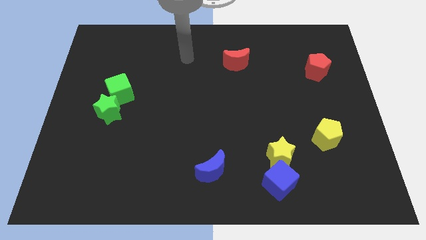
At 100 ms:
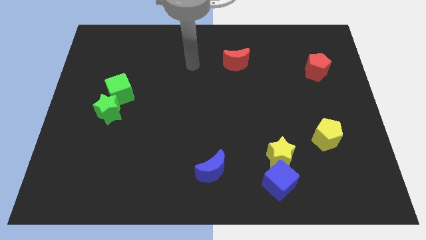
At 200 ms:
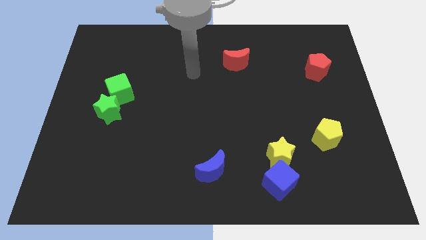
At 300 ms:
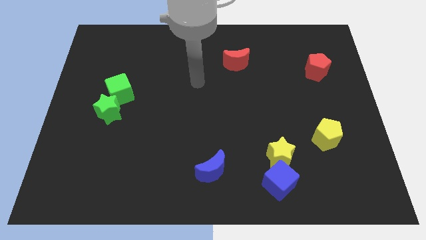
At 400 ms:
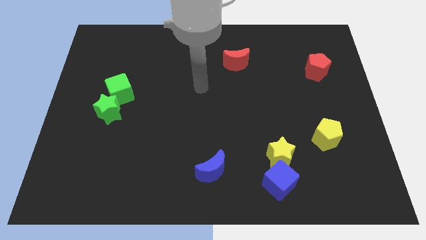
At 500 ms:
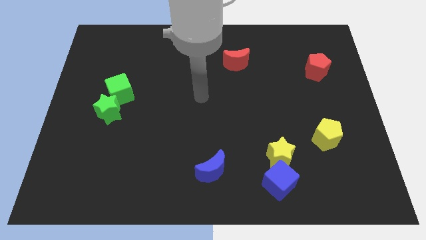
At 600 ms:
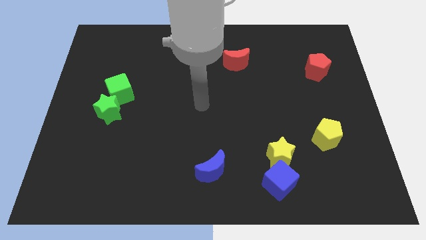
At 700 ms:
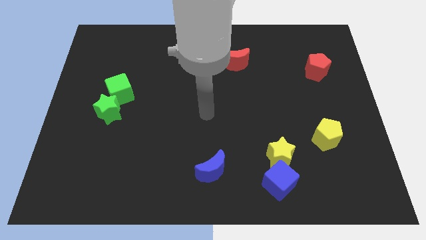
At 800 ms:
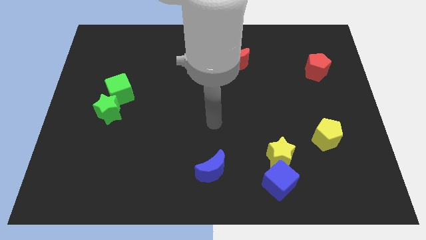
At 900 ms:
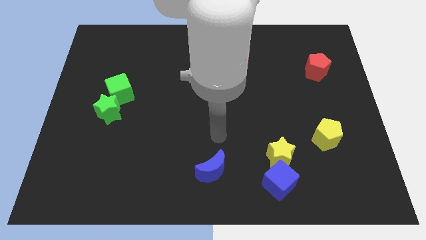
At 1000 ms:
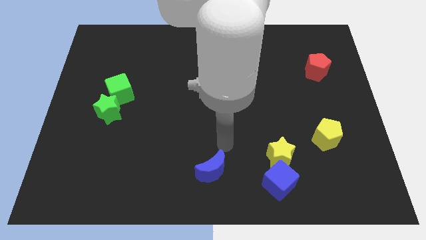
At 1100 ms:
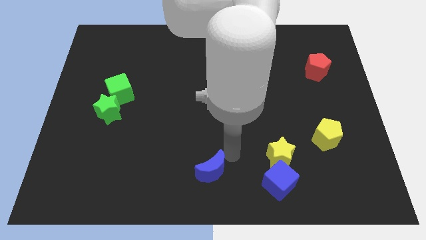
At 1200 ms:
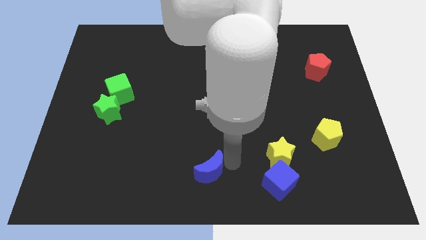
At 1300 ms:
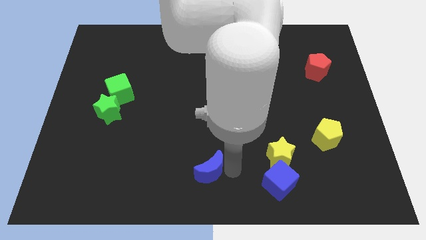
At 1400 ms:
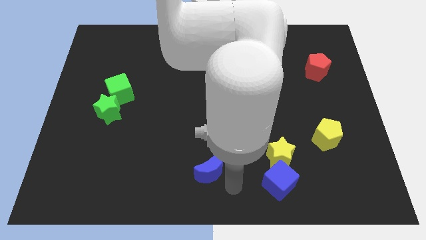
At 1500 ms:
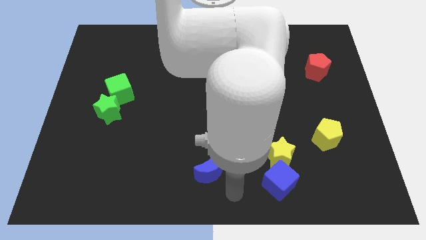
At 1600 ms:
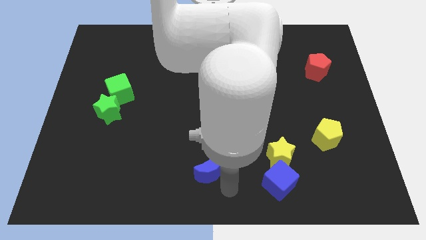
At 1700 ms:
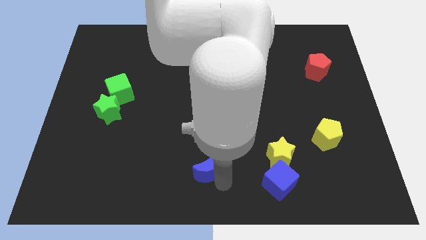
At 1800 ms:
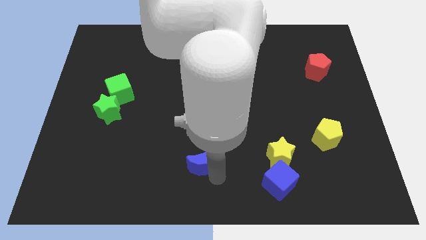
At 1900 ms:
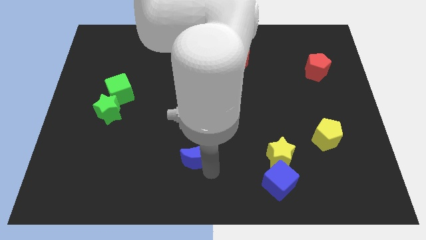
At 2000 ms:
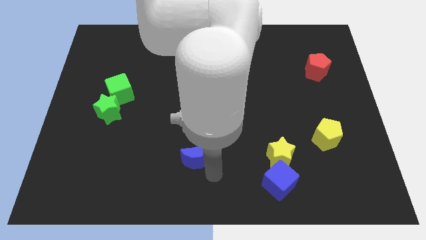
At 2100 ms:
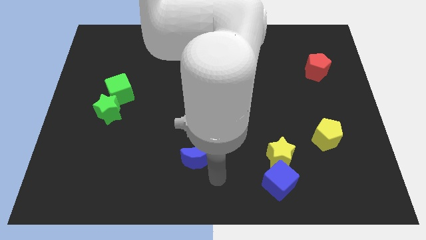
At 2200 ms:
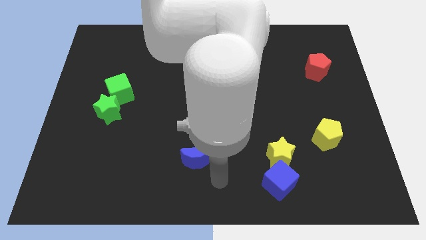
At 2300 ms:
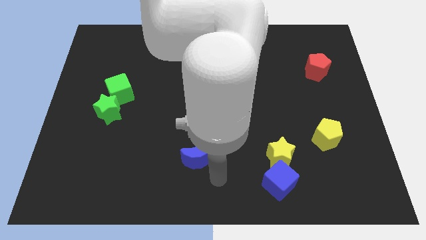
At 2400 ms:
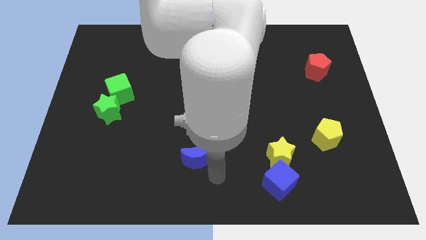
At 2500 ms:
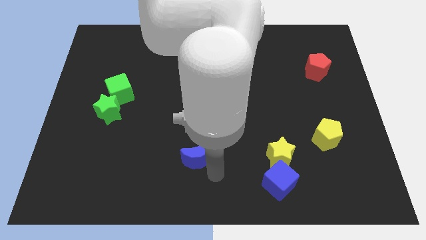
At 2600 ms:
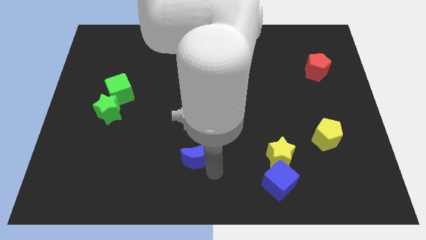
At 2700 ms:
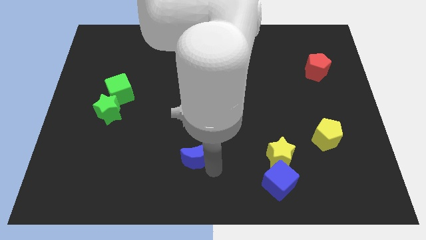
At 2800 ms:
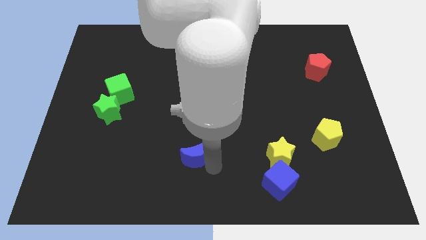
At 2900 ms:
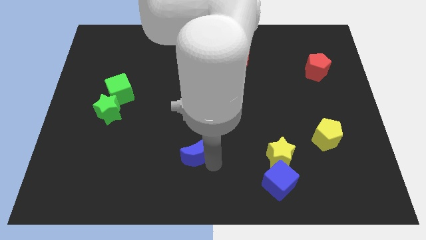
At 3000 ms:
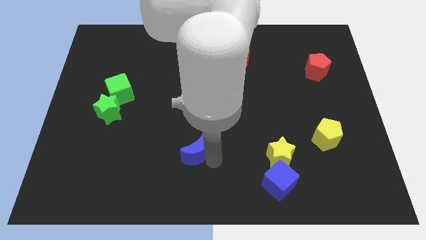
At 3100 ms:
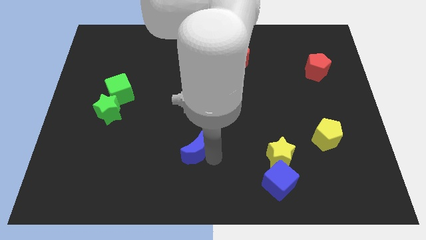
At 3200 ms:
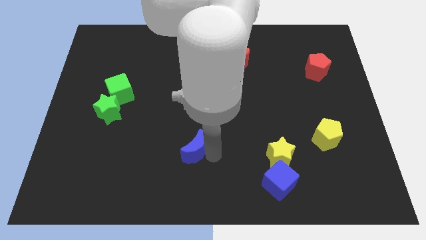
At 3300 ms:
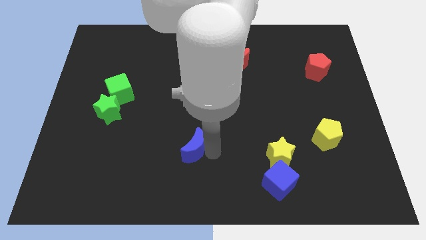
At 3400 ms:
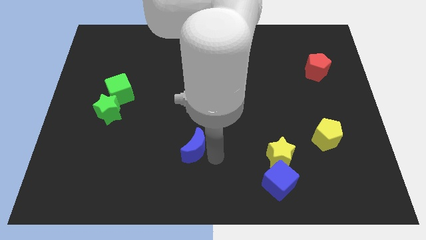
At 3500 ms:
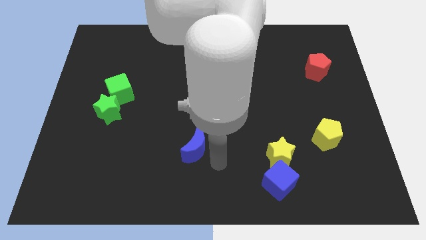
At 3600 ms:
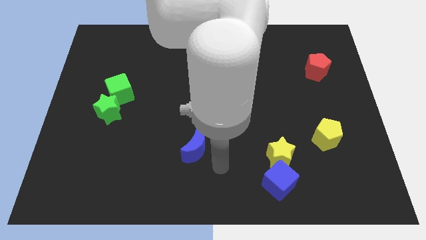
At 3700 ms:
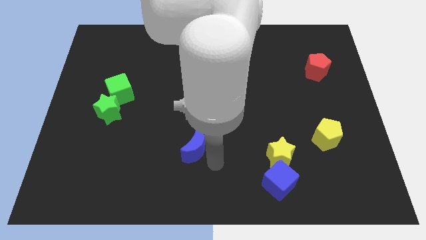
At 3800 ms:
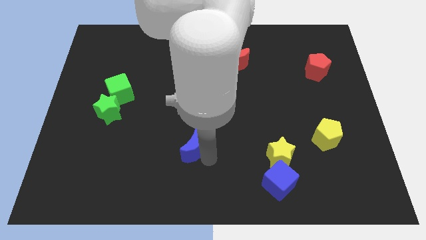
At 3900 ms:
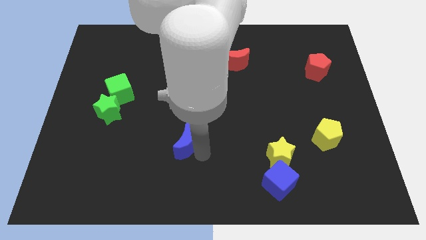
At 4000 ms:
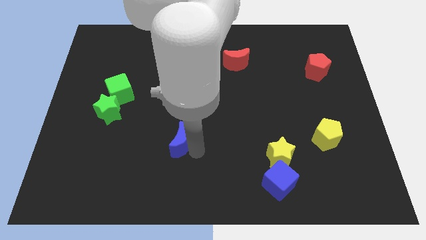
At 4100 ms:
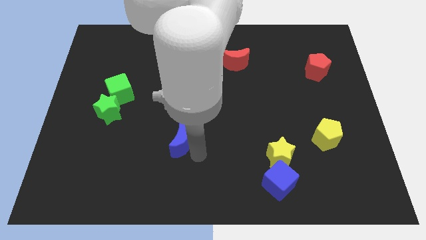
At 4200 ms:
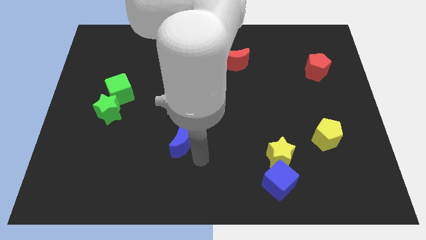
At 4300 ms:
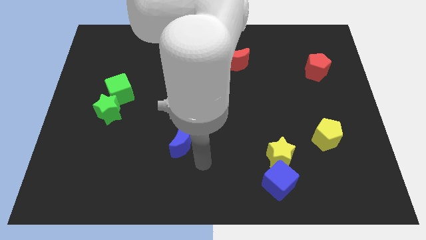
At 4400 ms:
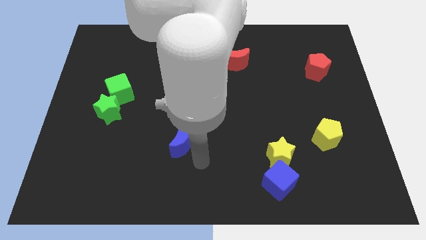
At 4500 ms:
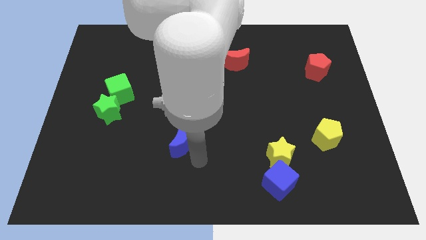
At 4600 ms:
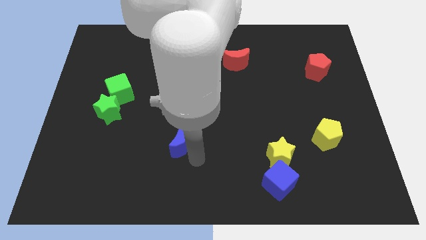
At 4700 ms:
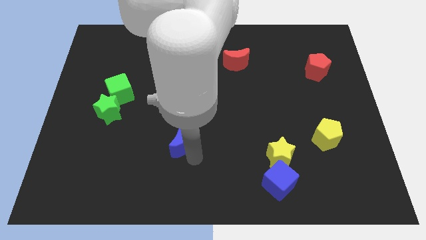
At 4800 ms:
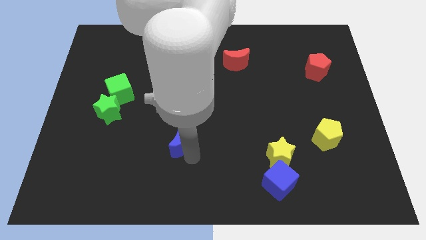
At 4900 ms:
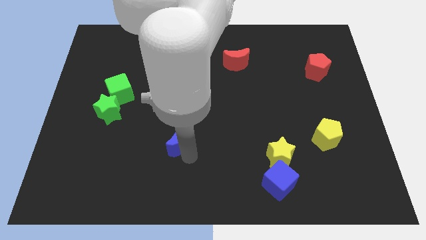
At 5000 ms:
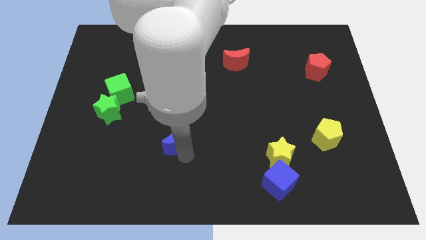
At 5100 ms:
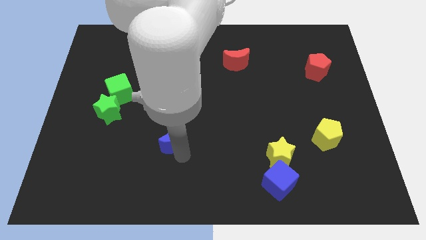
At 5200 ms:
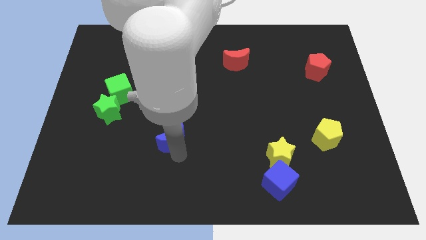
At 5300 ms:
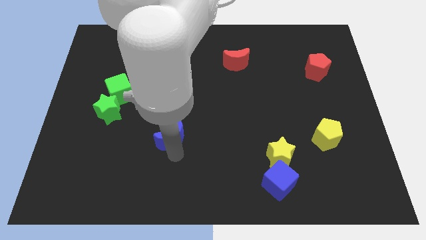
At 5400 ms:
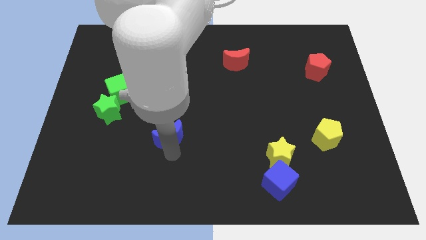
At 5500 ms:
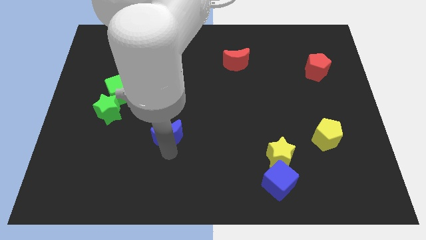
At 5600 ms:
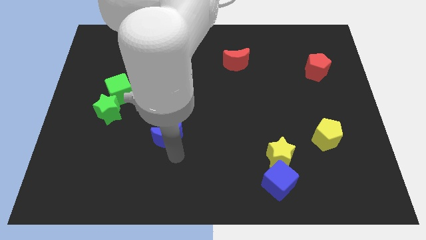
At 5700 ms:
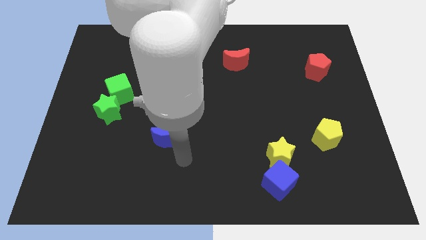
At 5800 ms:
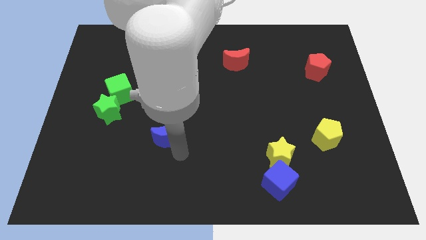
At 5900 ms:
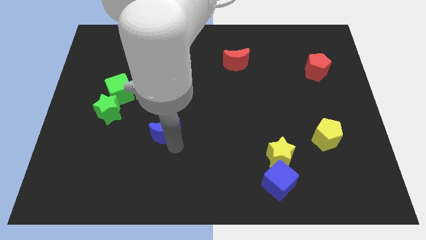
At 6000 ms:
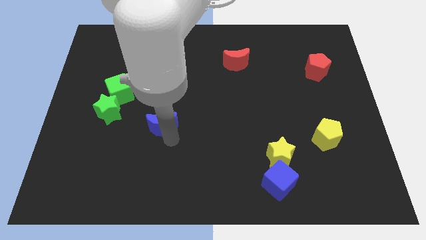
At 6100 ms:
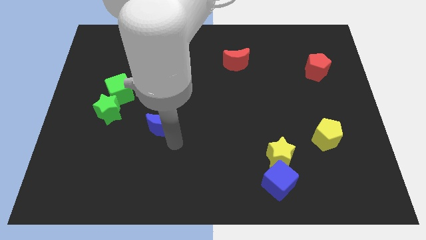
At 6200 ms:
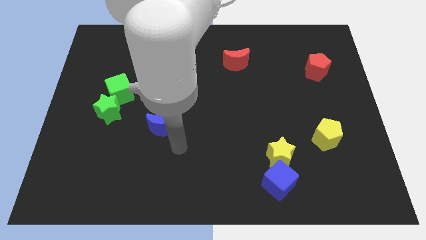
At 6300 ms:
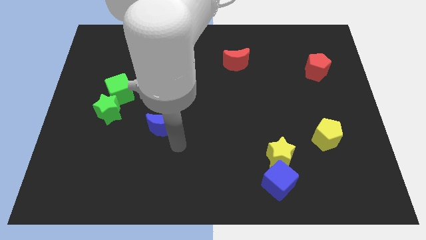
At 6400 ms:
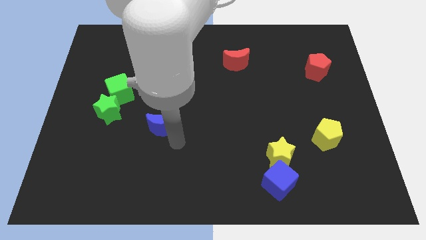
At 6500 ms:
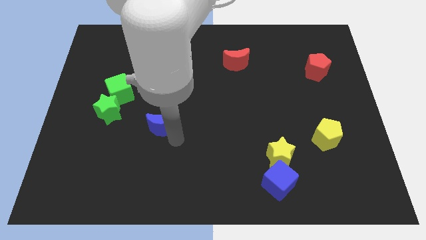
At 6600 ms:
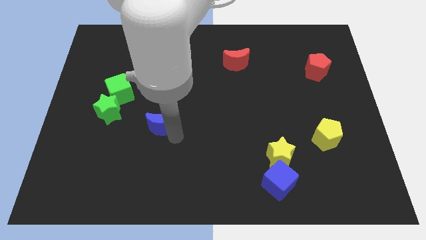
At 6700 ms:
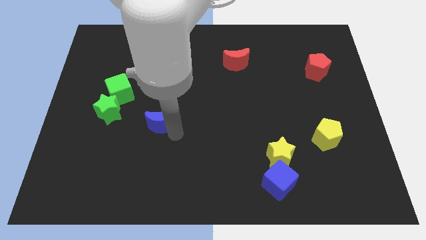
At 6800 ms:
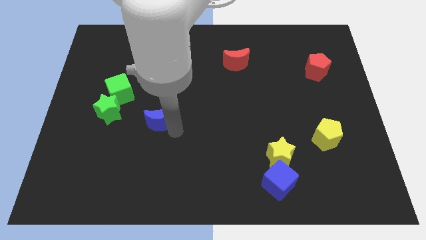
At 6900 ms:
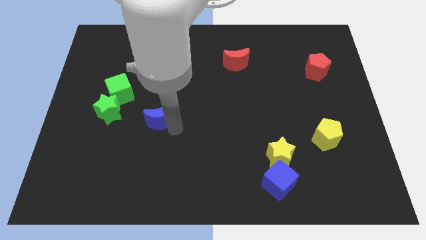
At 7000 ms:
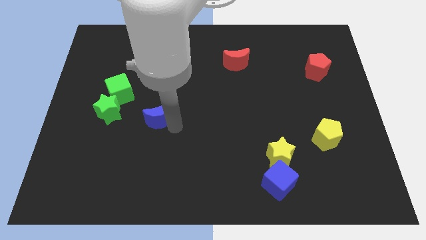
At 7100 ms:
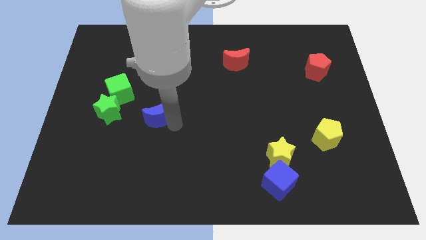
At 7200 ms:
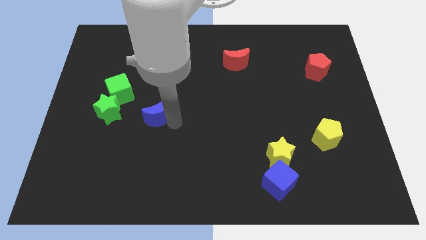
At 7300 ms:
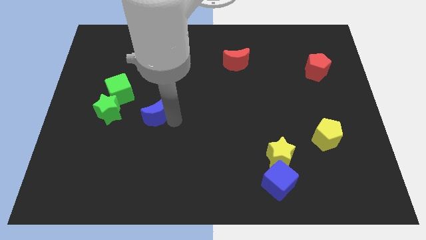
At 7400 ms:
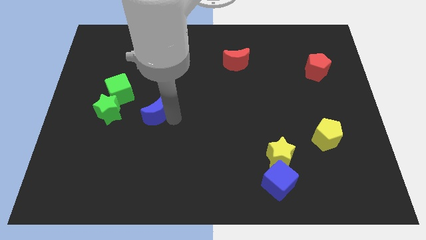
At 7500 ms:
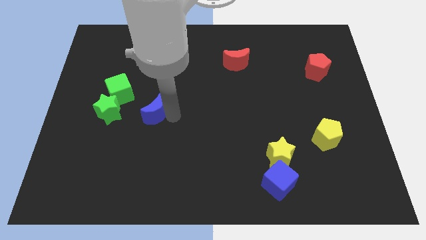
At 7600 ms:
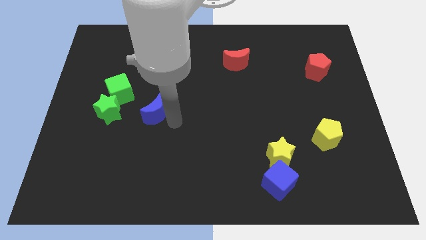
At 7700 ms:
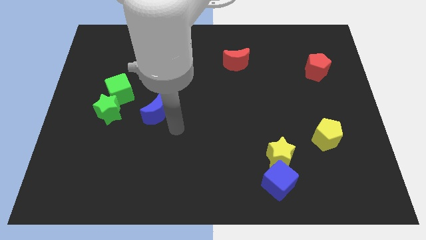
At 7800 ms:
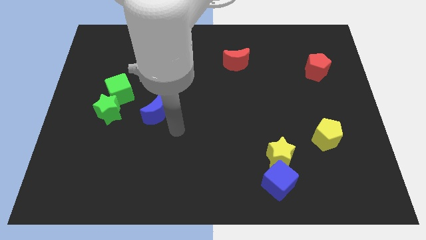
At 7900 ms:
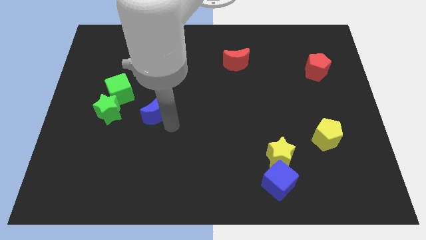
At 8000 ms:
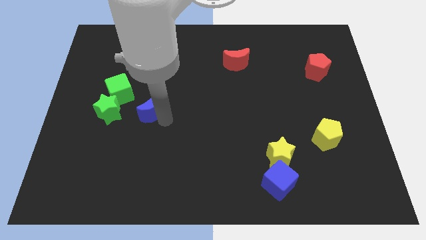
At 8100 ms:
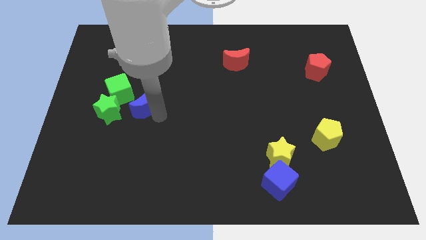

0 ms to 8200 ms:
put the blue moon to the top right side of the green star

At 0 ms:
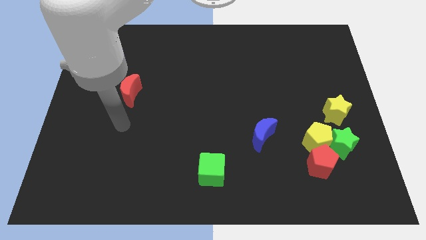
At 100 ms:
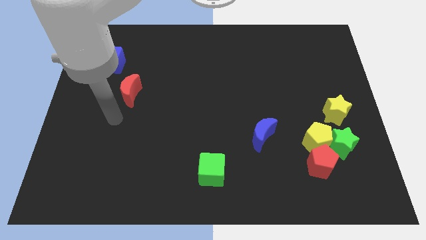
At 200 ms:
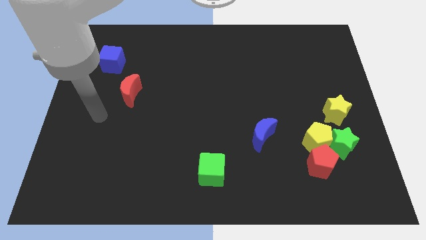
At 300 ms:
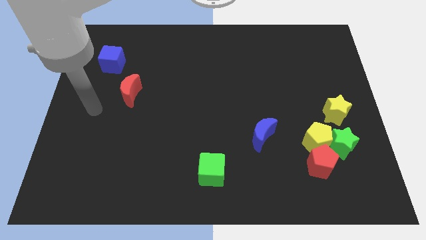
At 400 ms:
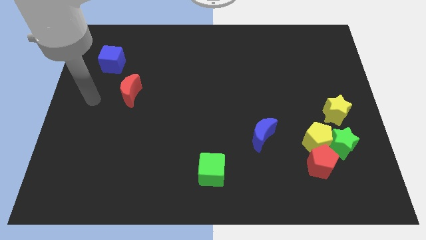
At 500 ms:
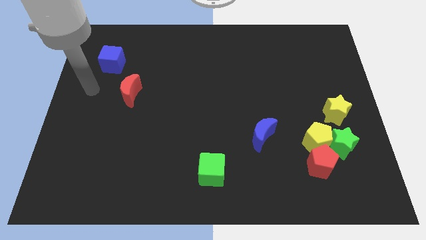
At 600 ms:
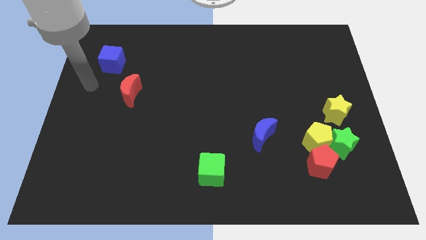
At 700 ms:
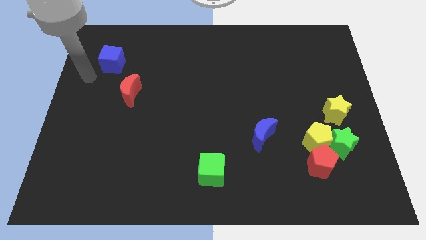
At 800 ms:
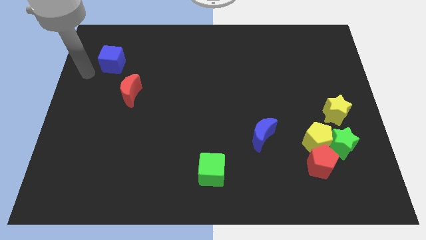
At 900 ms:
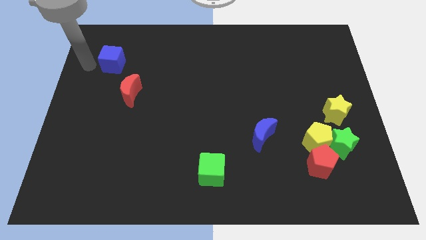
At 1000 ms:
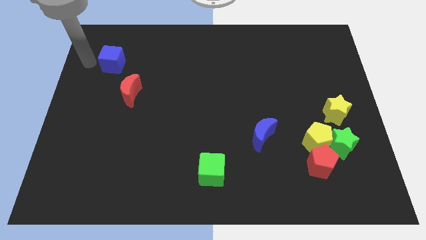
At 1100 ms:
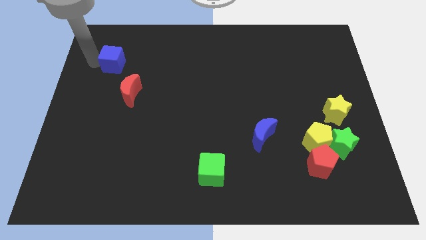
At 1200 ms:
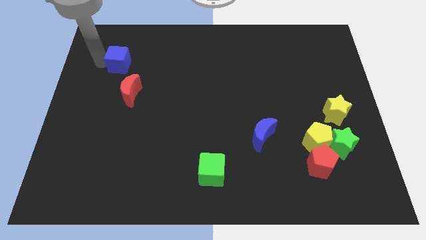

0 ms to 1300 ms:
put the blue cube above the red moon
